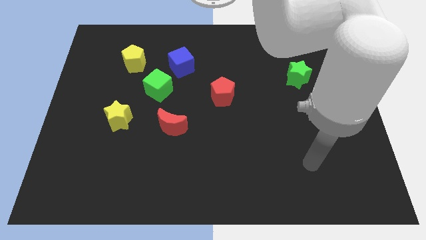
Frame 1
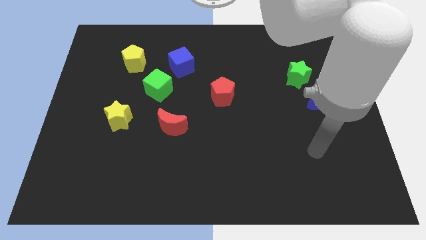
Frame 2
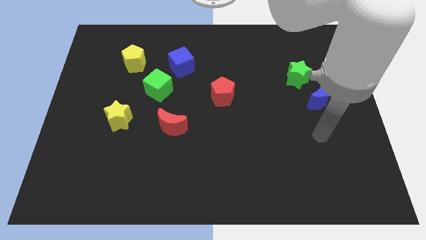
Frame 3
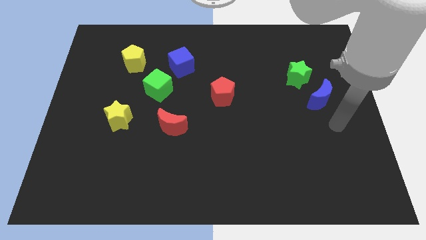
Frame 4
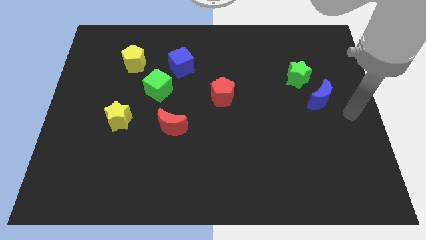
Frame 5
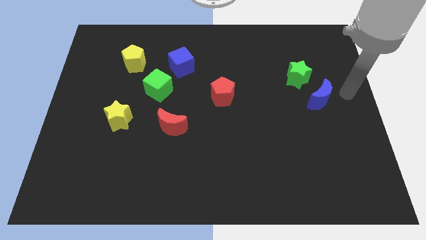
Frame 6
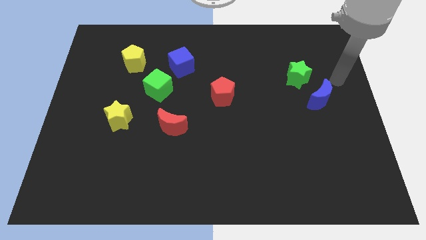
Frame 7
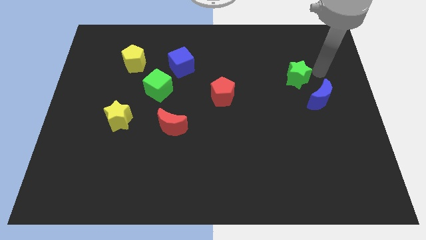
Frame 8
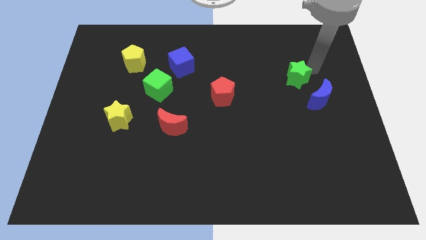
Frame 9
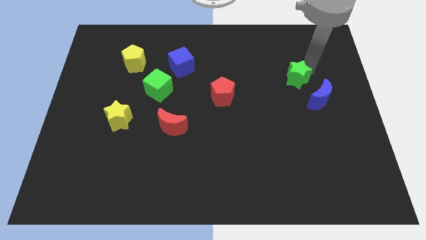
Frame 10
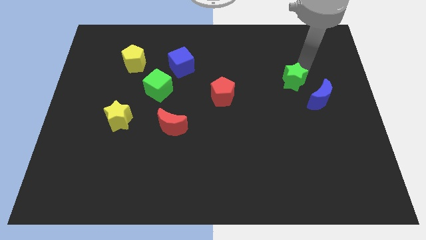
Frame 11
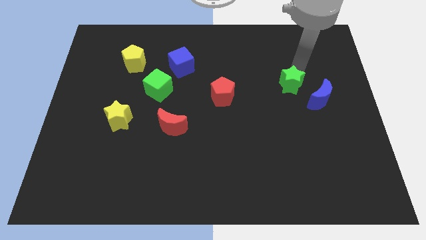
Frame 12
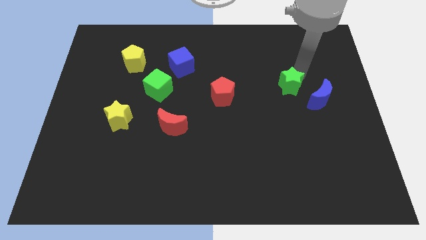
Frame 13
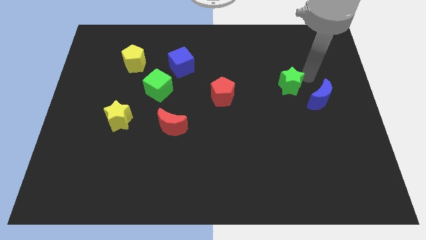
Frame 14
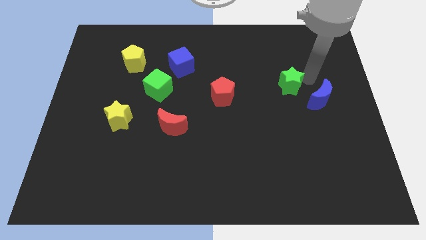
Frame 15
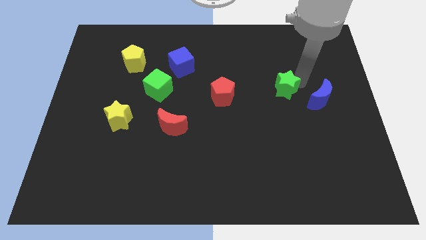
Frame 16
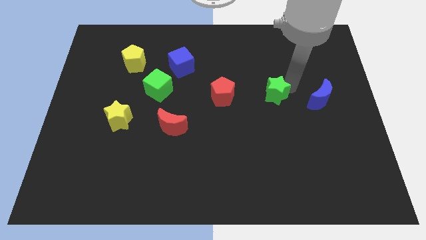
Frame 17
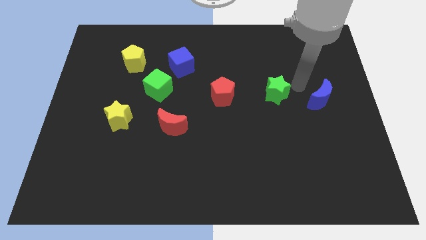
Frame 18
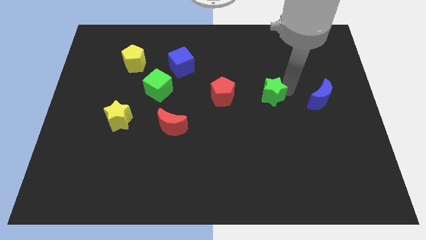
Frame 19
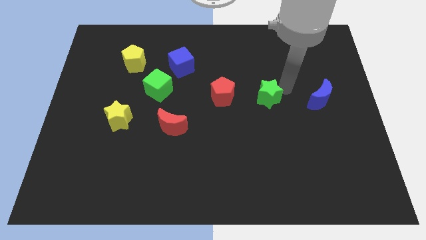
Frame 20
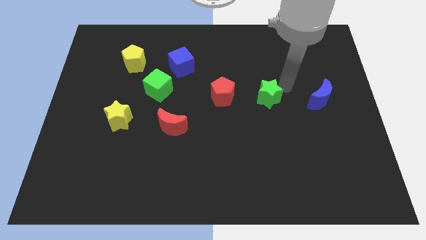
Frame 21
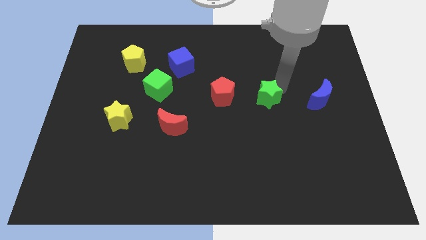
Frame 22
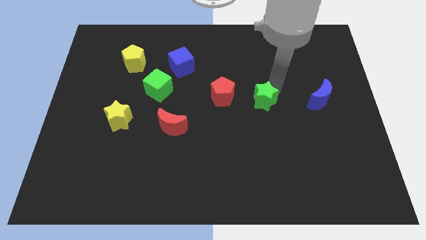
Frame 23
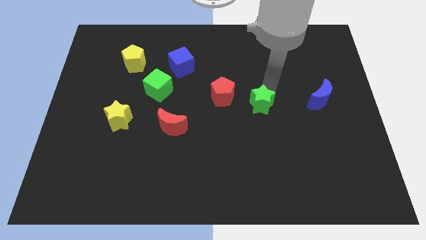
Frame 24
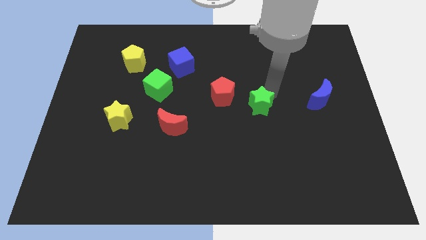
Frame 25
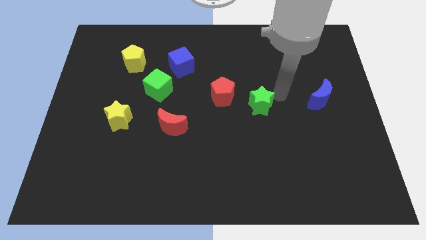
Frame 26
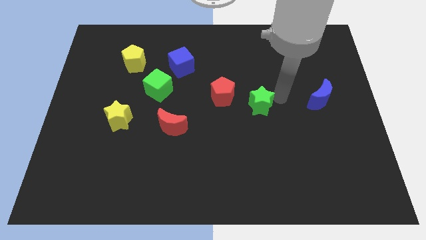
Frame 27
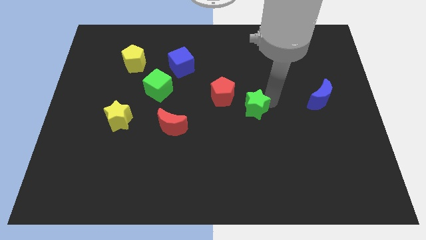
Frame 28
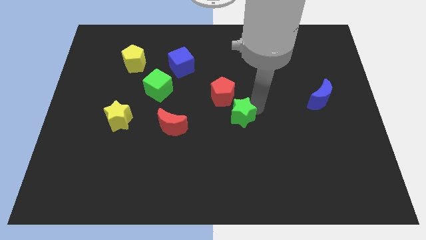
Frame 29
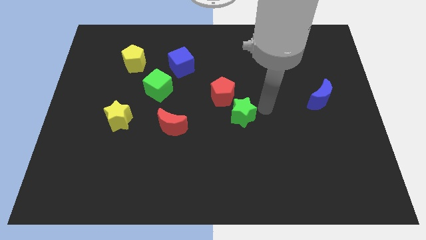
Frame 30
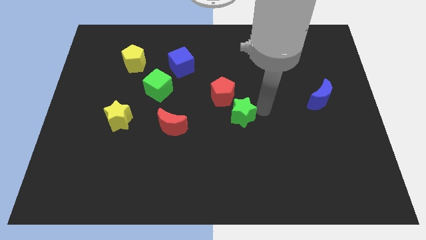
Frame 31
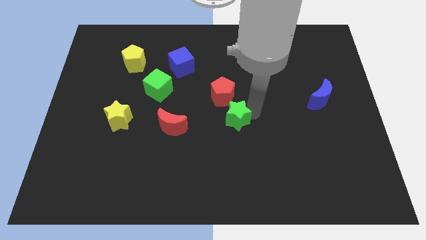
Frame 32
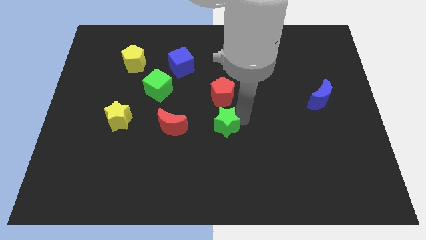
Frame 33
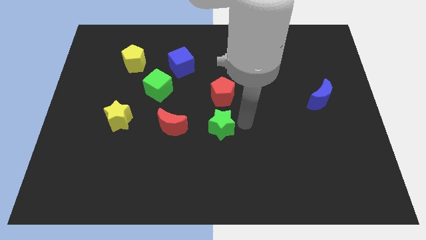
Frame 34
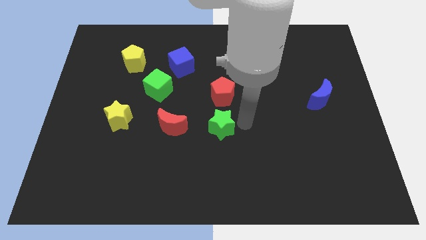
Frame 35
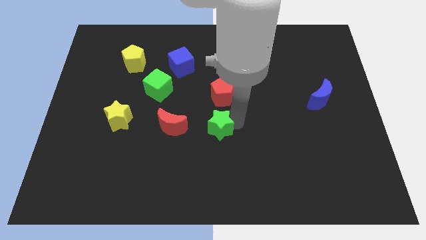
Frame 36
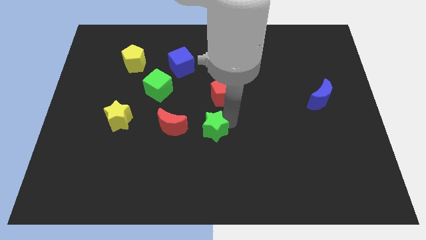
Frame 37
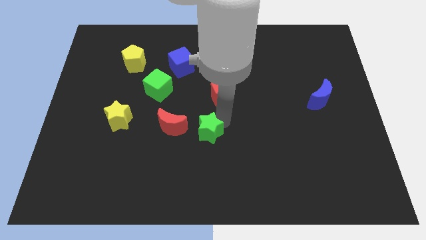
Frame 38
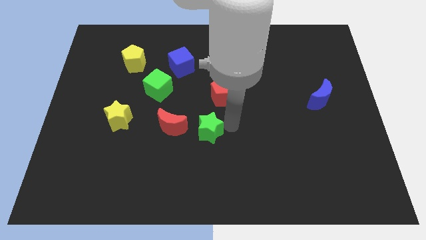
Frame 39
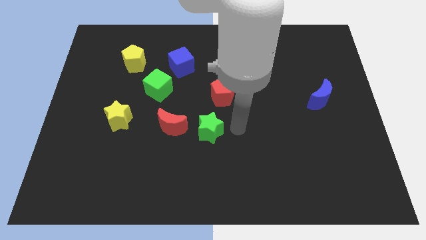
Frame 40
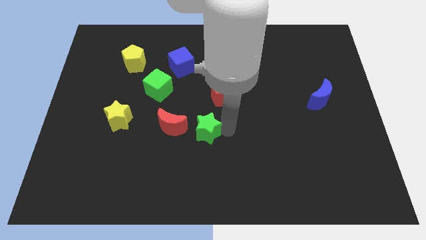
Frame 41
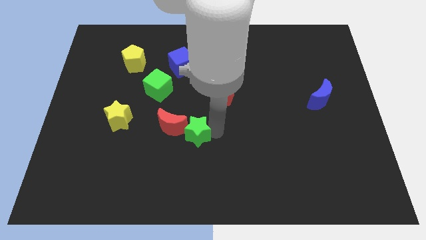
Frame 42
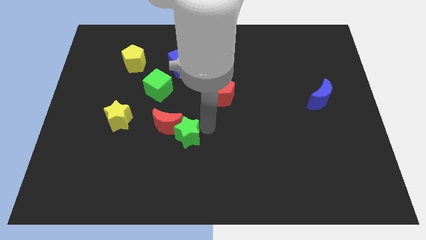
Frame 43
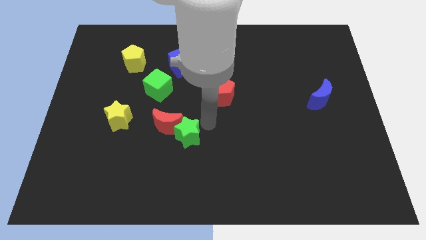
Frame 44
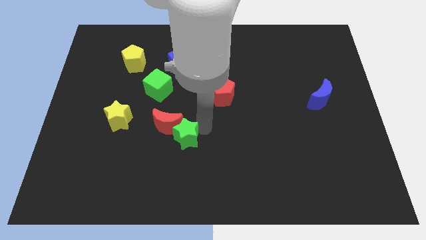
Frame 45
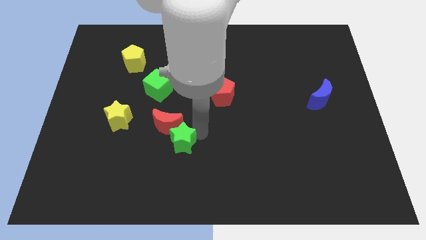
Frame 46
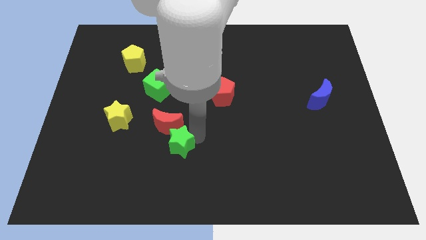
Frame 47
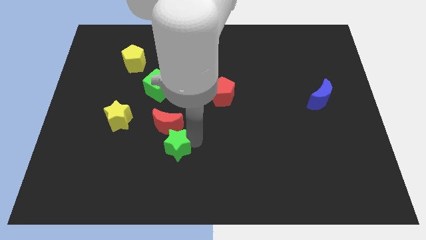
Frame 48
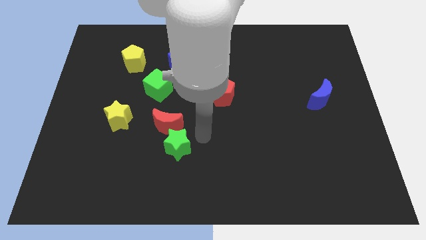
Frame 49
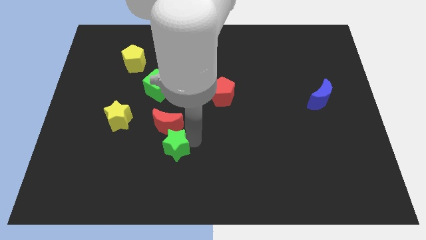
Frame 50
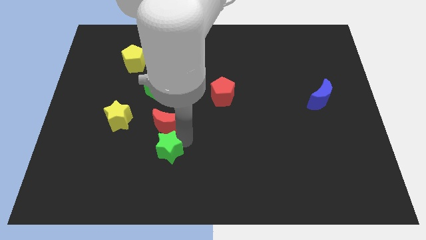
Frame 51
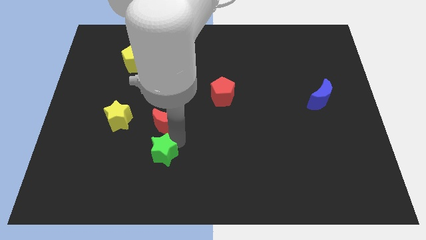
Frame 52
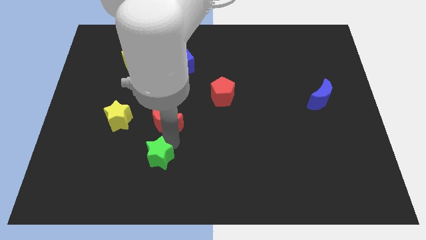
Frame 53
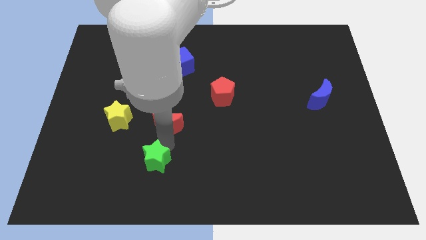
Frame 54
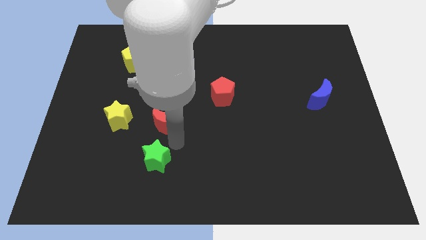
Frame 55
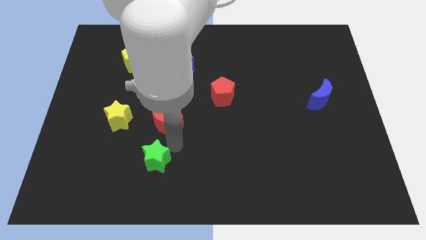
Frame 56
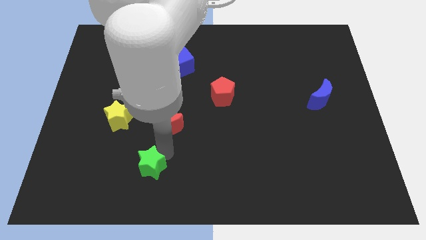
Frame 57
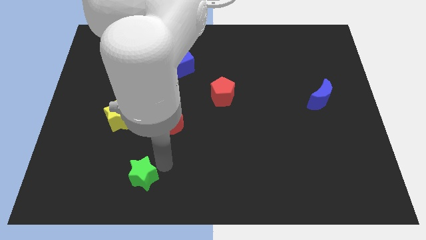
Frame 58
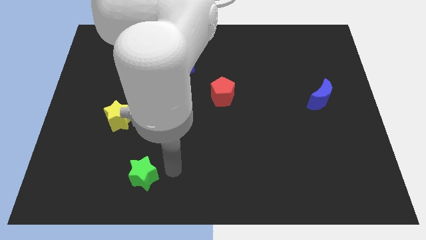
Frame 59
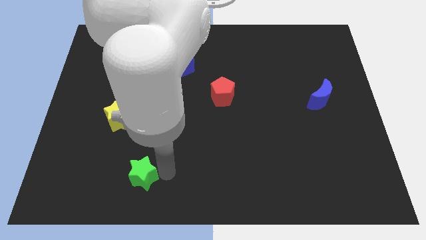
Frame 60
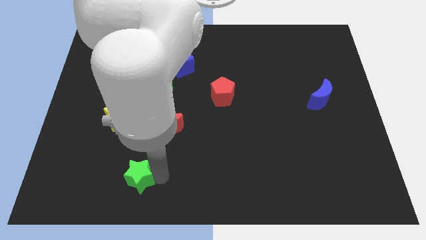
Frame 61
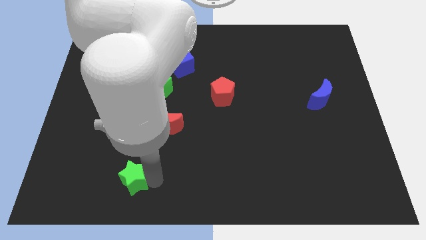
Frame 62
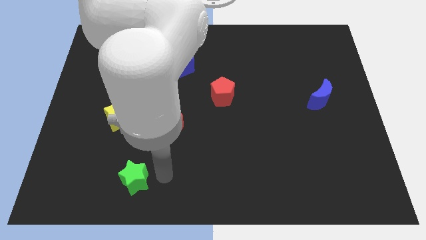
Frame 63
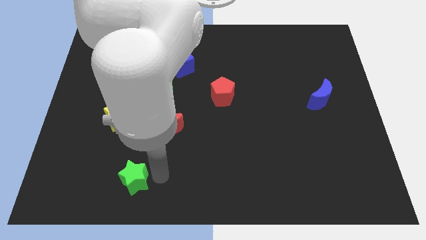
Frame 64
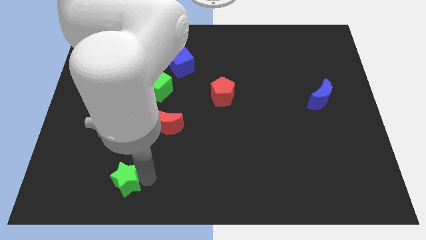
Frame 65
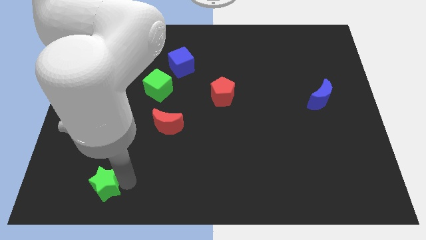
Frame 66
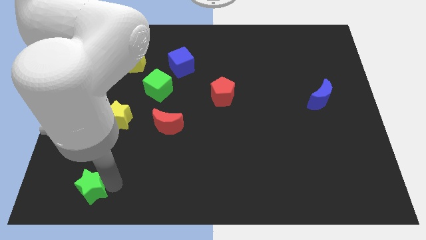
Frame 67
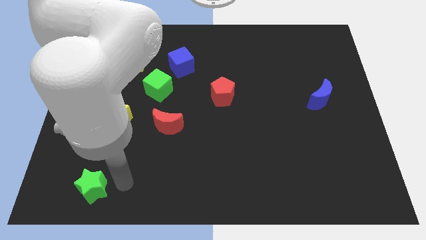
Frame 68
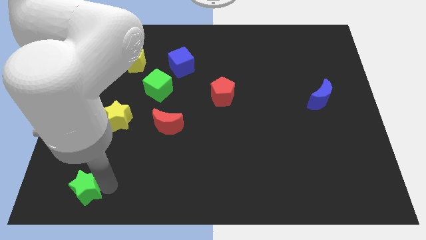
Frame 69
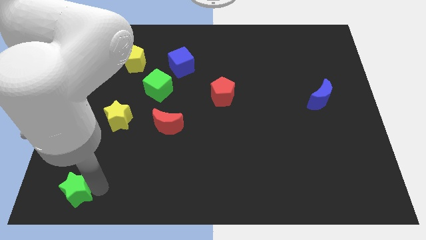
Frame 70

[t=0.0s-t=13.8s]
push the green star to the bottom left of the board
